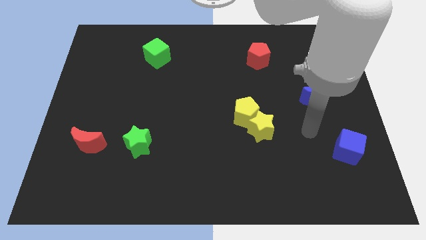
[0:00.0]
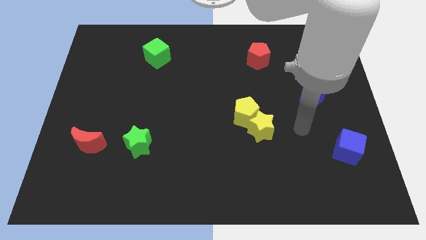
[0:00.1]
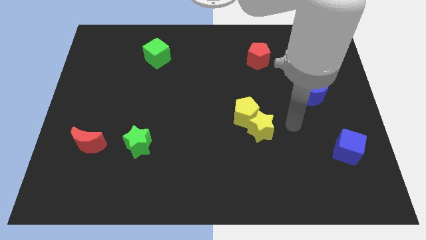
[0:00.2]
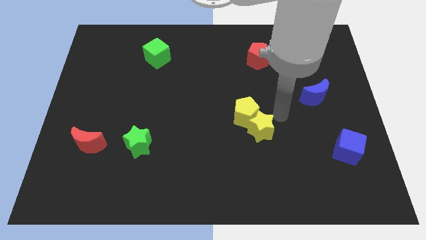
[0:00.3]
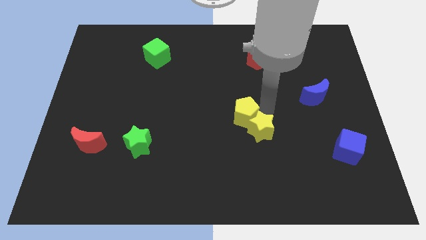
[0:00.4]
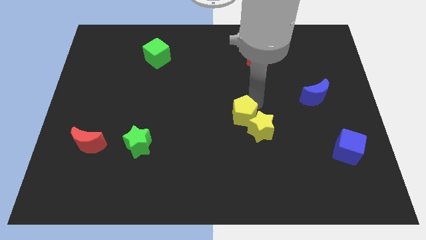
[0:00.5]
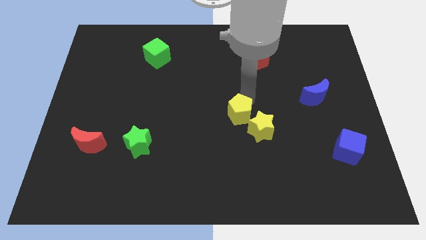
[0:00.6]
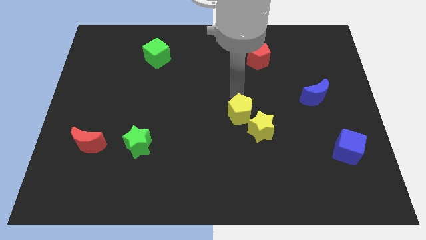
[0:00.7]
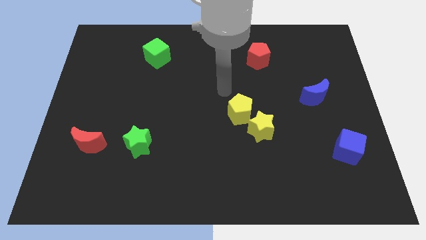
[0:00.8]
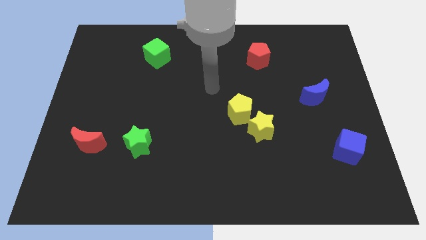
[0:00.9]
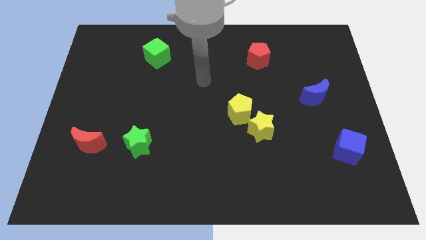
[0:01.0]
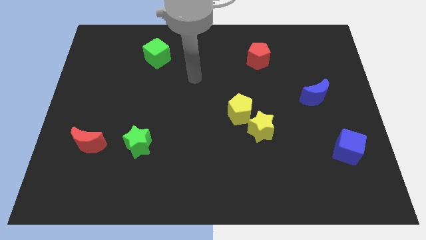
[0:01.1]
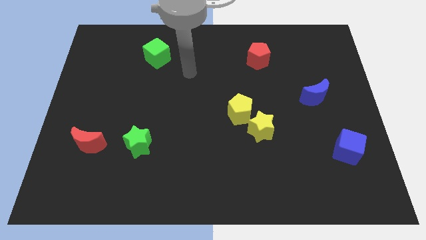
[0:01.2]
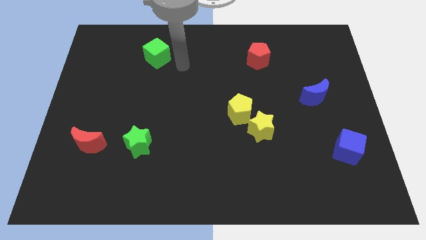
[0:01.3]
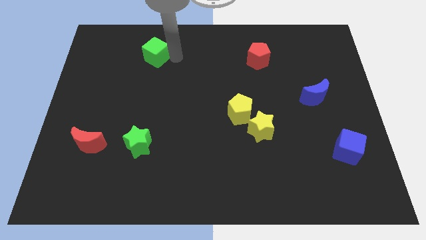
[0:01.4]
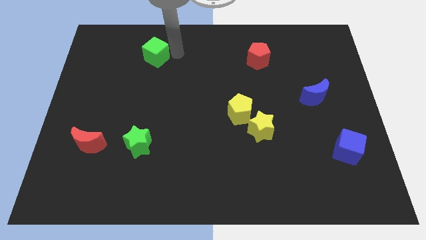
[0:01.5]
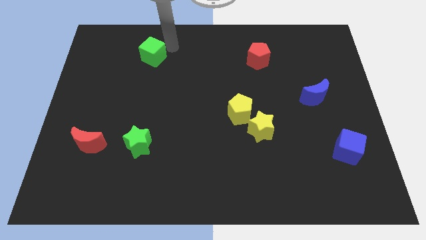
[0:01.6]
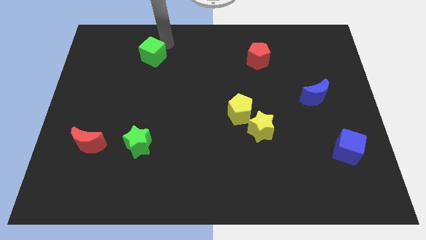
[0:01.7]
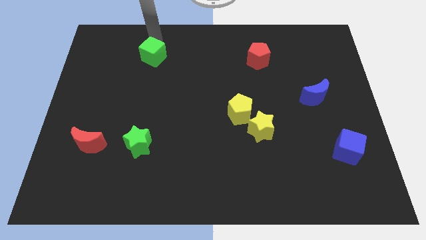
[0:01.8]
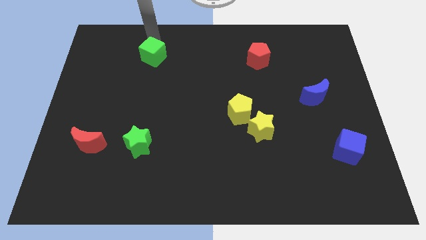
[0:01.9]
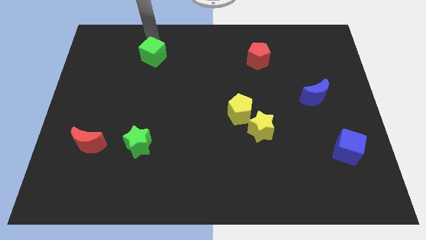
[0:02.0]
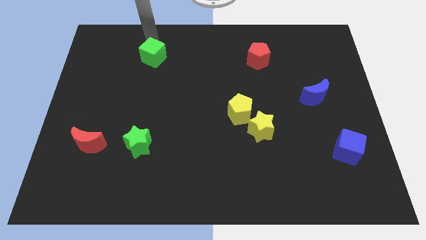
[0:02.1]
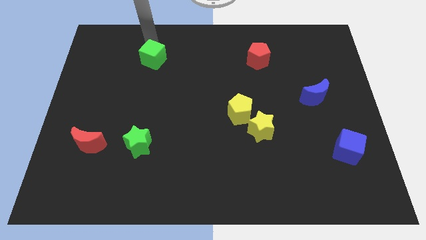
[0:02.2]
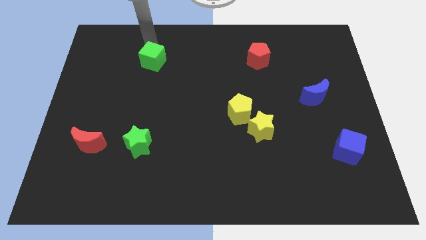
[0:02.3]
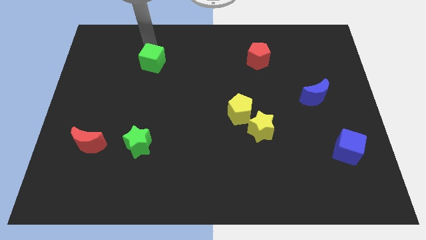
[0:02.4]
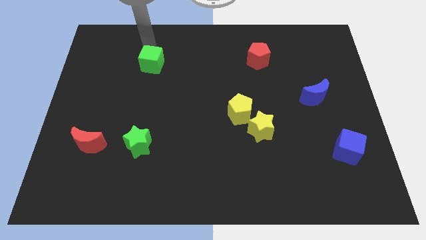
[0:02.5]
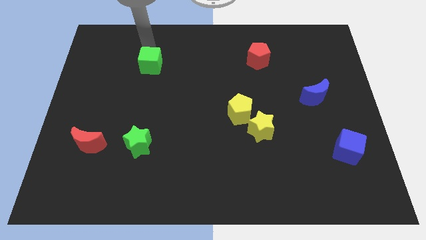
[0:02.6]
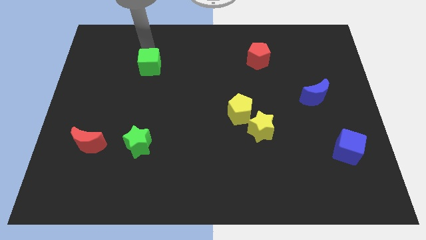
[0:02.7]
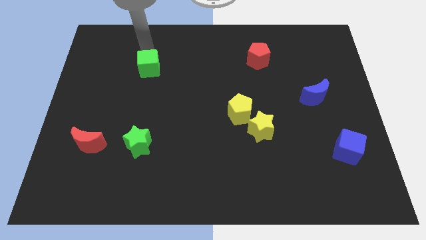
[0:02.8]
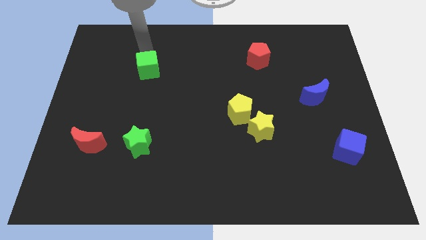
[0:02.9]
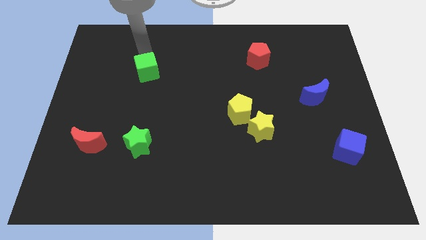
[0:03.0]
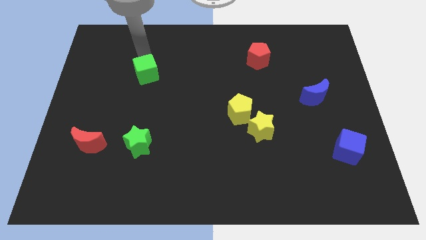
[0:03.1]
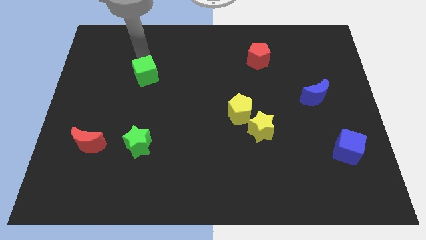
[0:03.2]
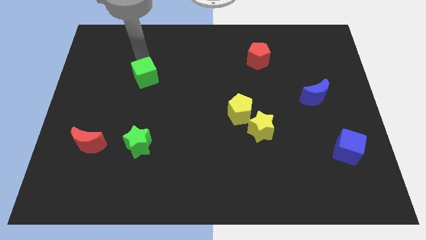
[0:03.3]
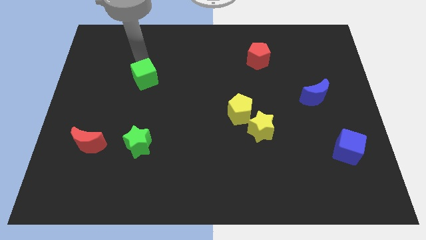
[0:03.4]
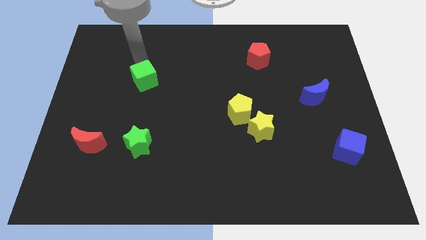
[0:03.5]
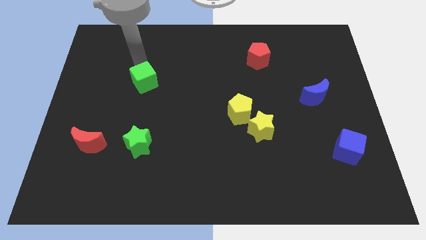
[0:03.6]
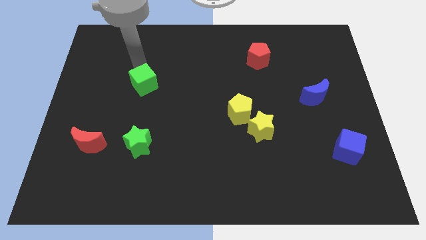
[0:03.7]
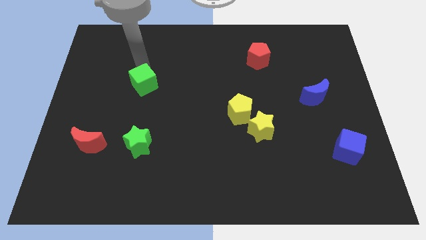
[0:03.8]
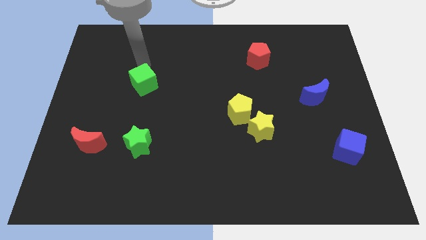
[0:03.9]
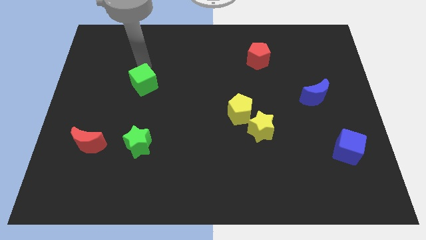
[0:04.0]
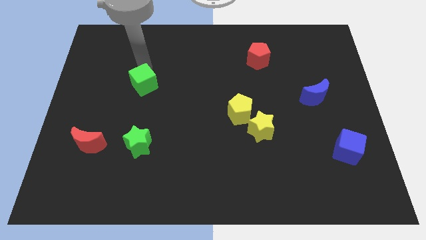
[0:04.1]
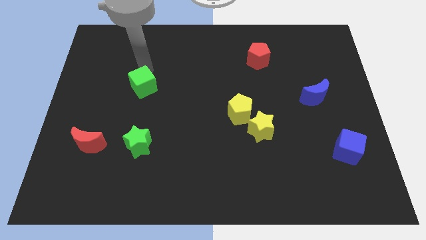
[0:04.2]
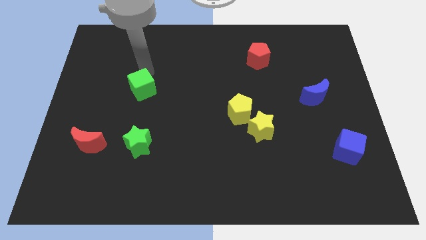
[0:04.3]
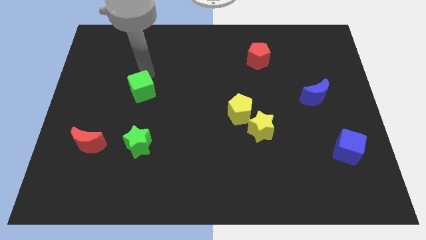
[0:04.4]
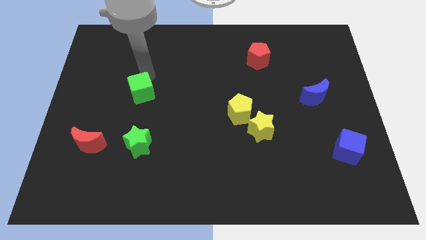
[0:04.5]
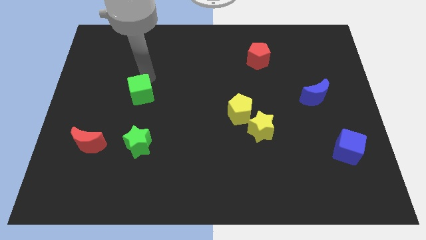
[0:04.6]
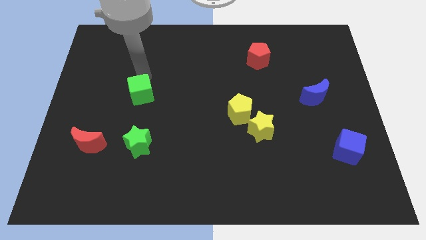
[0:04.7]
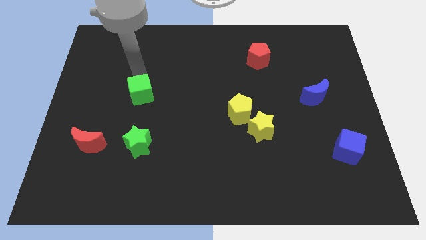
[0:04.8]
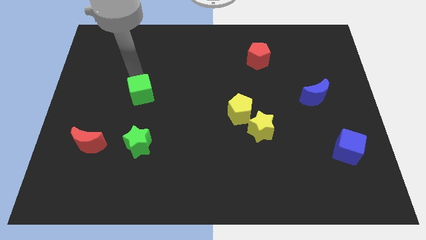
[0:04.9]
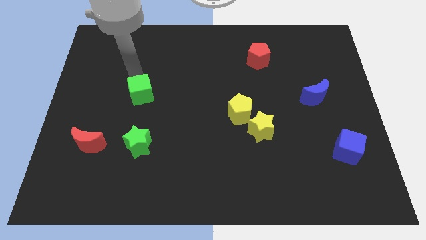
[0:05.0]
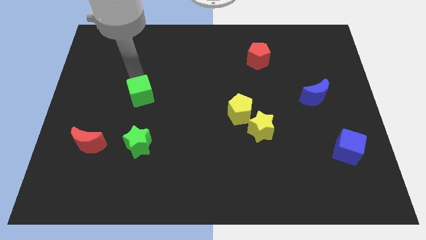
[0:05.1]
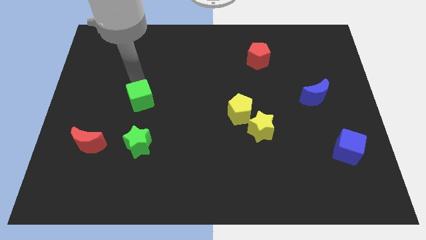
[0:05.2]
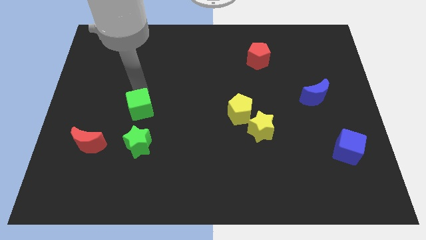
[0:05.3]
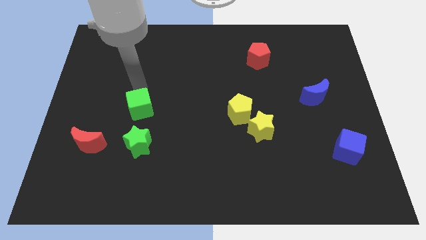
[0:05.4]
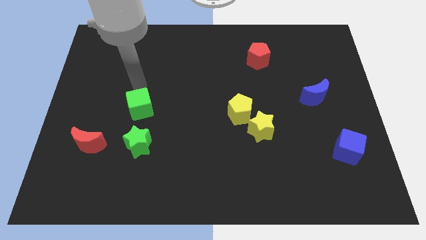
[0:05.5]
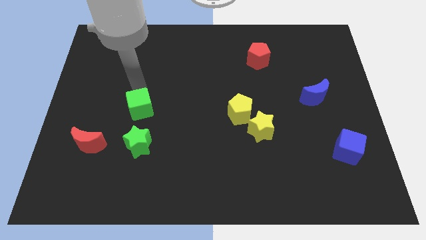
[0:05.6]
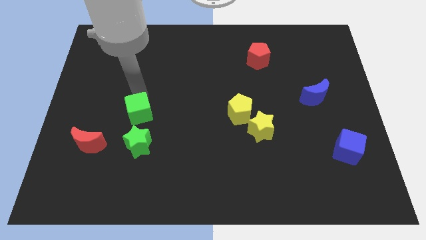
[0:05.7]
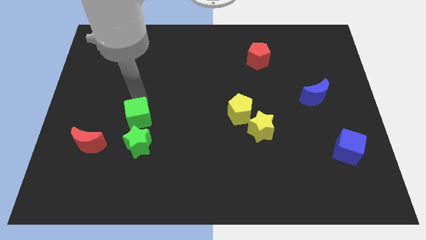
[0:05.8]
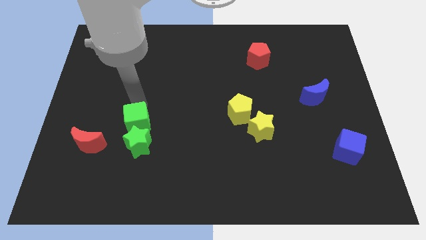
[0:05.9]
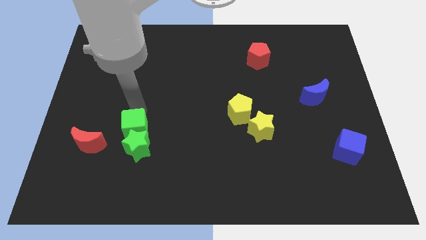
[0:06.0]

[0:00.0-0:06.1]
push the green cube next to the green star

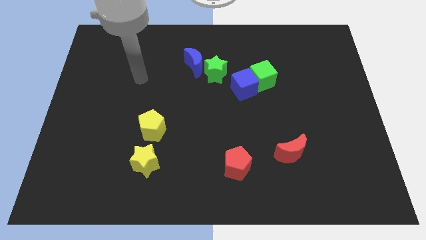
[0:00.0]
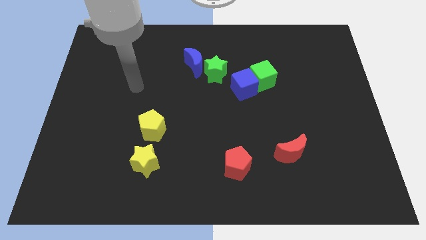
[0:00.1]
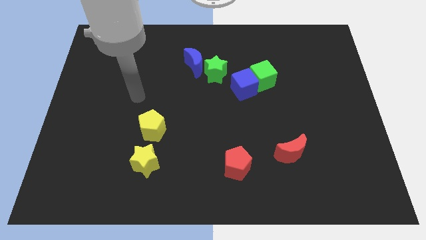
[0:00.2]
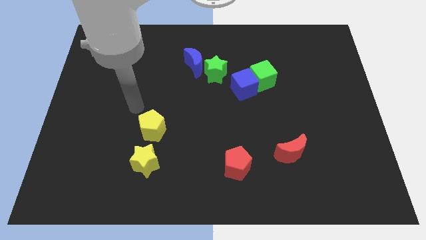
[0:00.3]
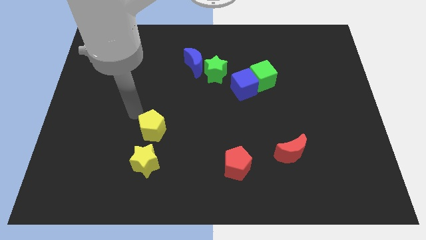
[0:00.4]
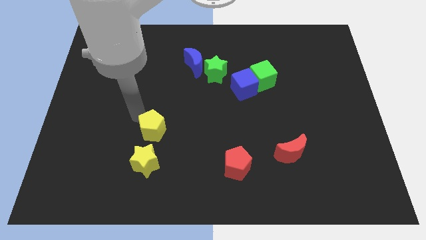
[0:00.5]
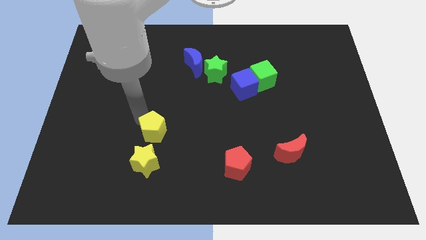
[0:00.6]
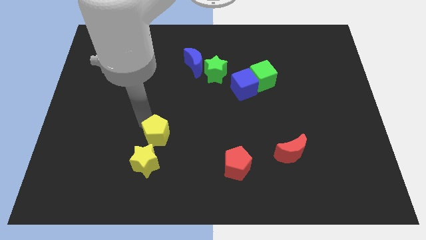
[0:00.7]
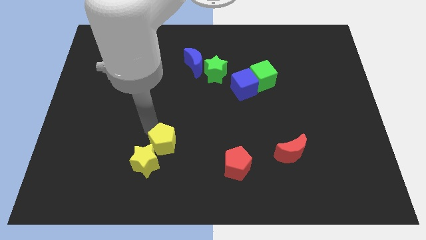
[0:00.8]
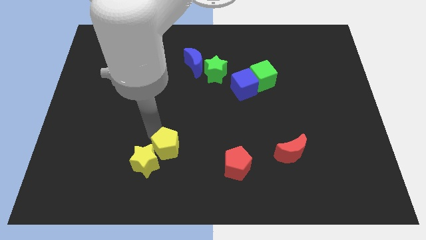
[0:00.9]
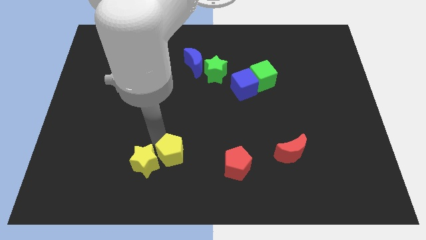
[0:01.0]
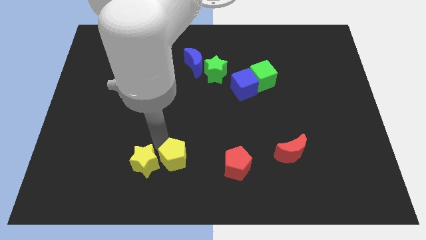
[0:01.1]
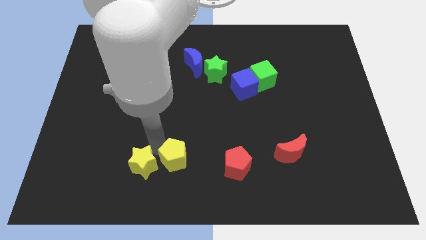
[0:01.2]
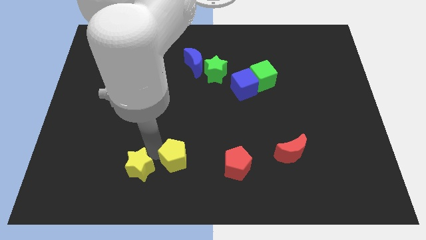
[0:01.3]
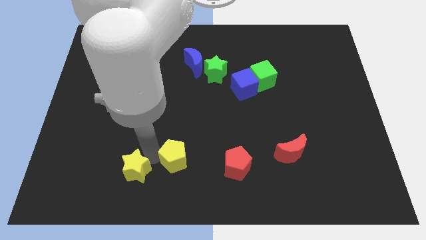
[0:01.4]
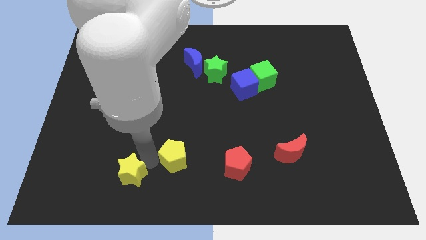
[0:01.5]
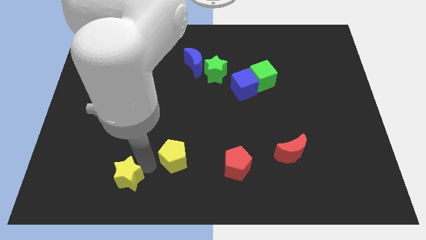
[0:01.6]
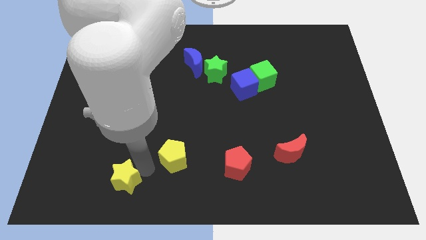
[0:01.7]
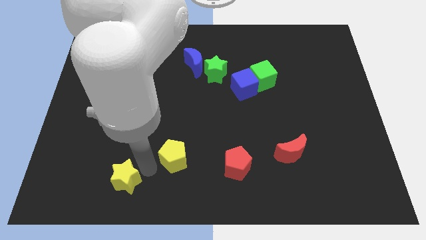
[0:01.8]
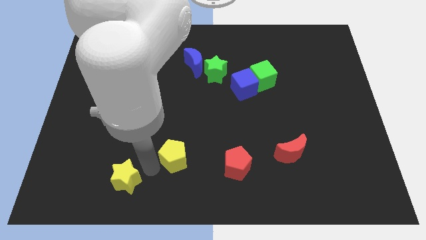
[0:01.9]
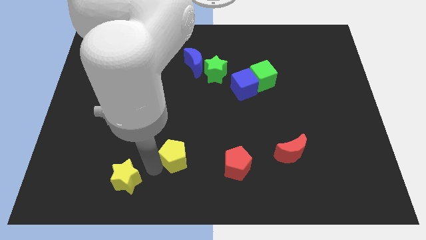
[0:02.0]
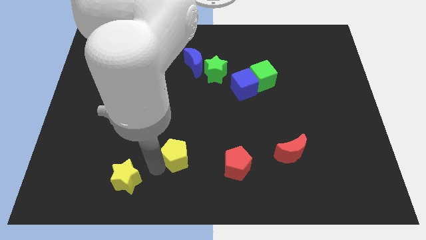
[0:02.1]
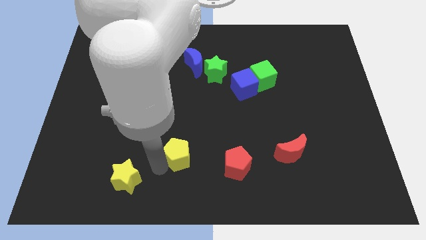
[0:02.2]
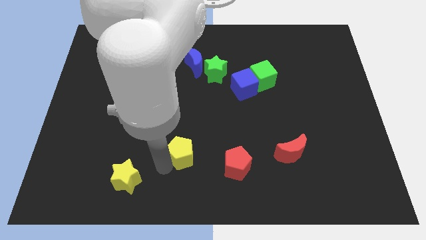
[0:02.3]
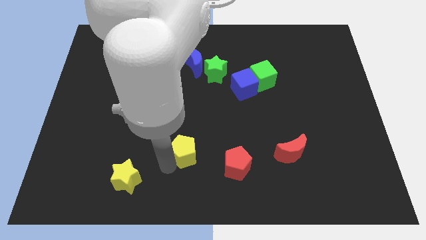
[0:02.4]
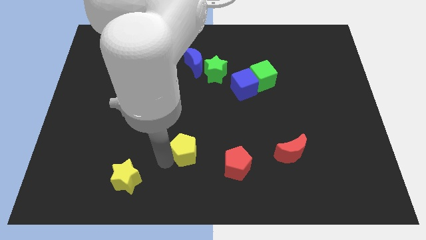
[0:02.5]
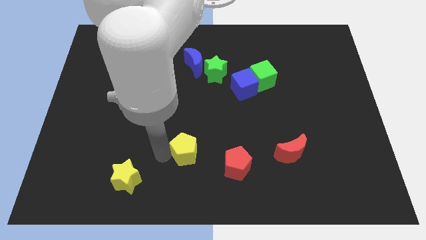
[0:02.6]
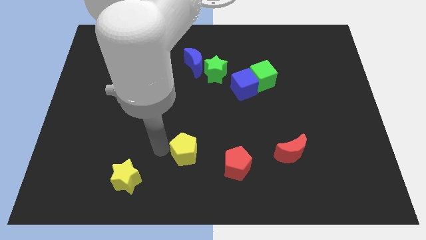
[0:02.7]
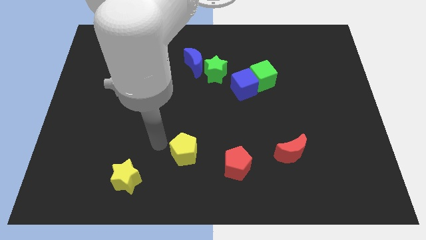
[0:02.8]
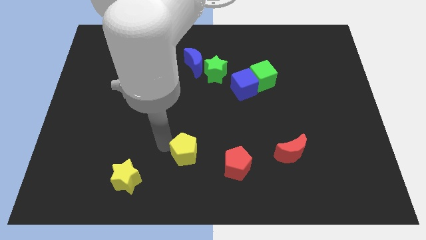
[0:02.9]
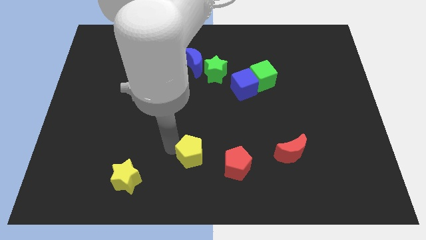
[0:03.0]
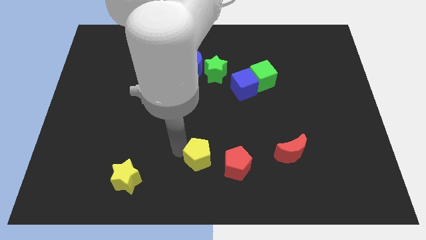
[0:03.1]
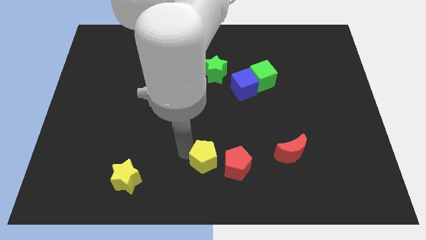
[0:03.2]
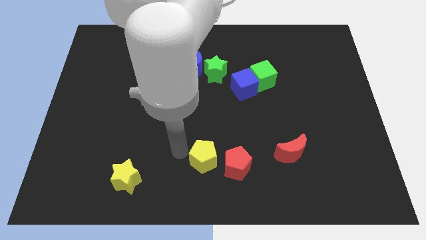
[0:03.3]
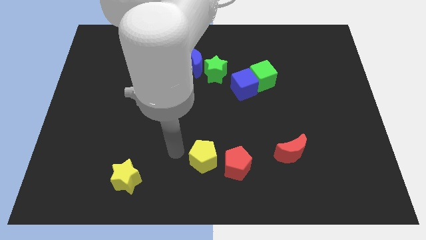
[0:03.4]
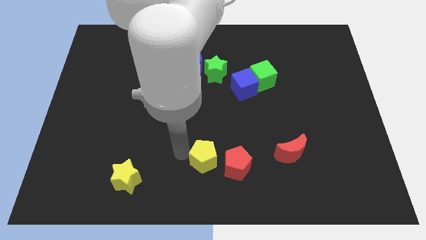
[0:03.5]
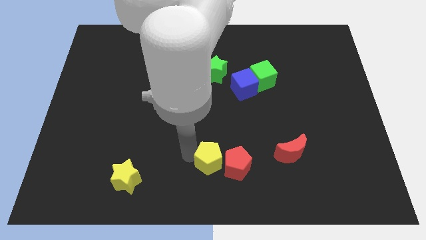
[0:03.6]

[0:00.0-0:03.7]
move the yellow pentagon next to the red pentagon
